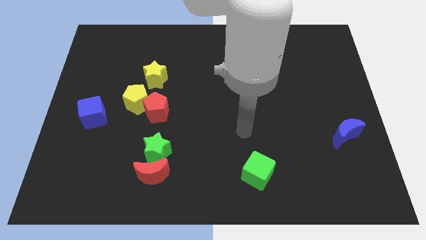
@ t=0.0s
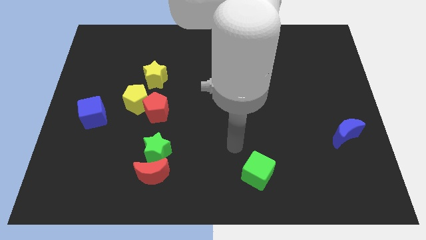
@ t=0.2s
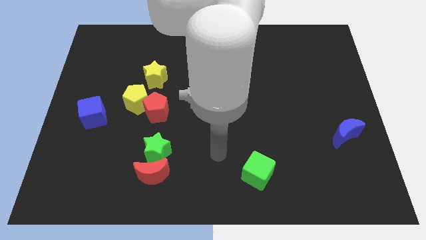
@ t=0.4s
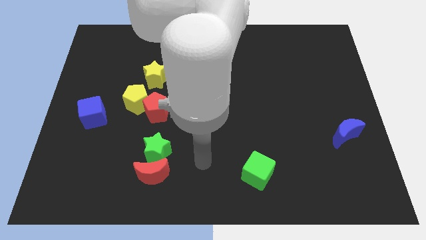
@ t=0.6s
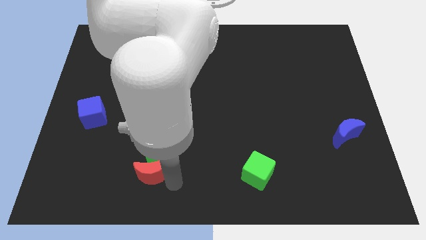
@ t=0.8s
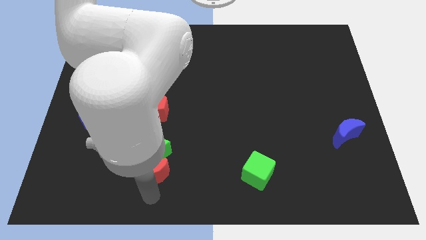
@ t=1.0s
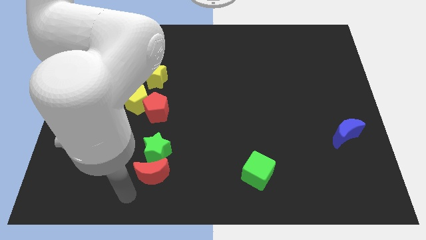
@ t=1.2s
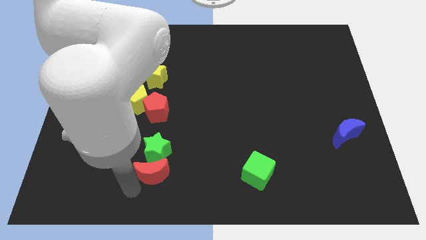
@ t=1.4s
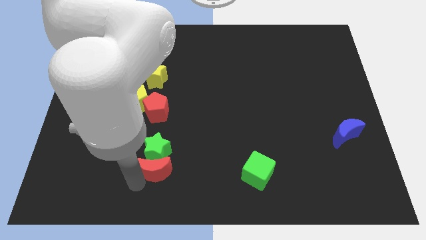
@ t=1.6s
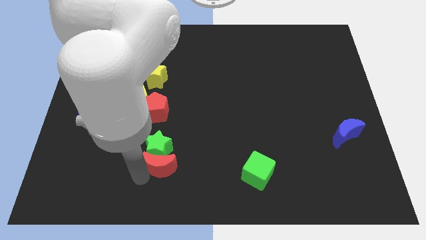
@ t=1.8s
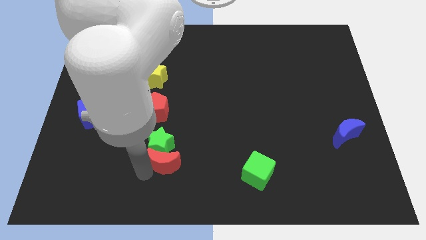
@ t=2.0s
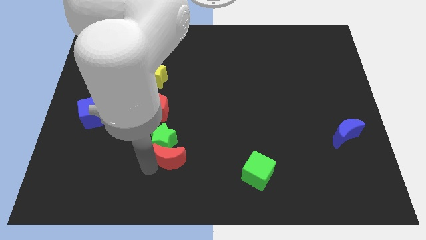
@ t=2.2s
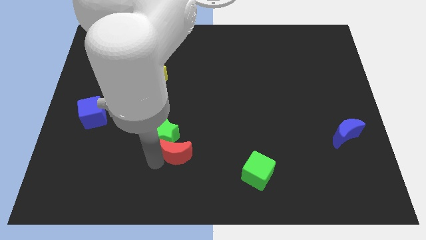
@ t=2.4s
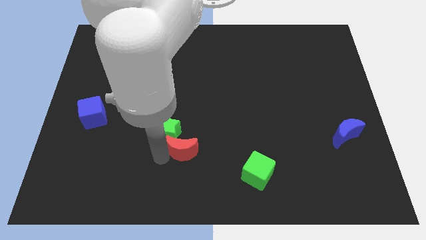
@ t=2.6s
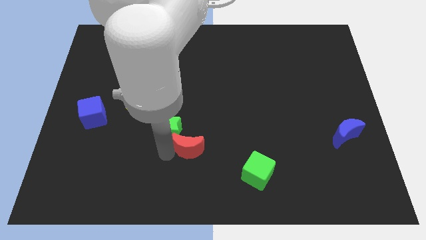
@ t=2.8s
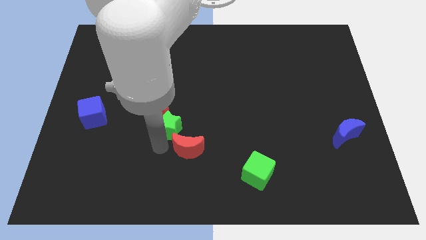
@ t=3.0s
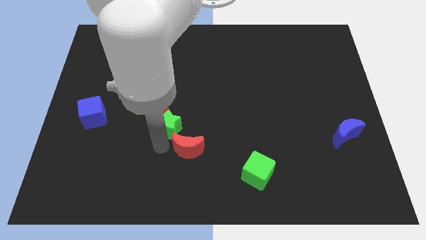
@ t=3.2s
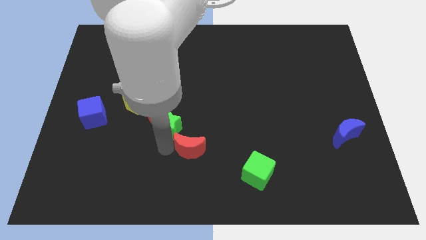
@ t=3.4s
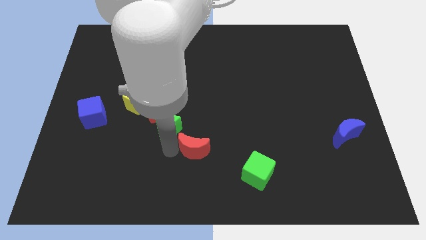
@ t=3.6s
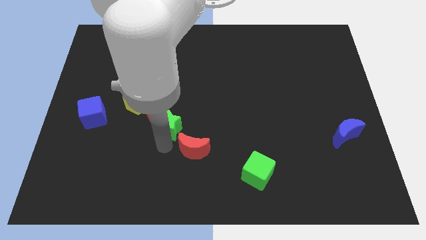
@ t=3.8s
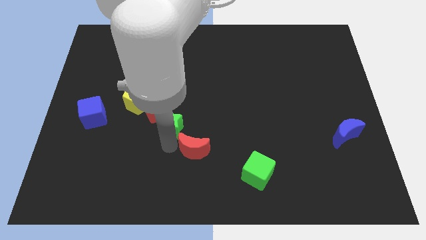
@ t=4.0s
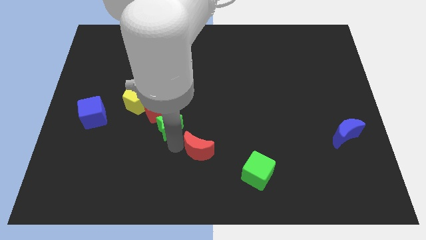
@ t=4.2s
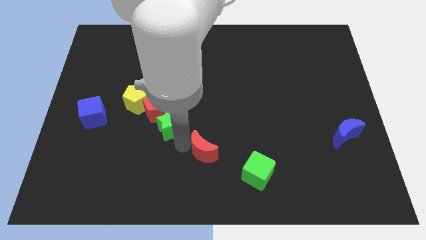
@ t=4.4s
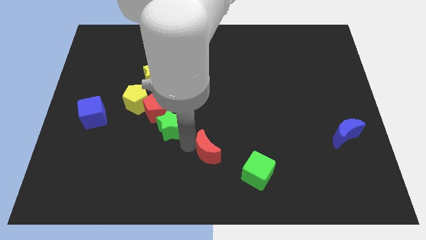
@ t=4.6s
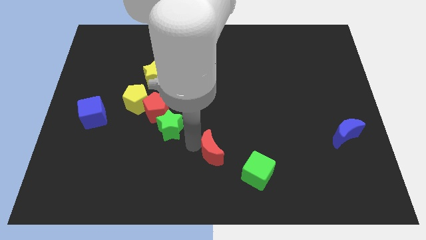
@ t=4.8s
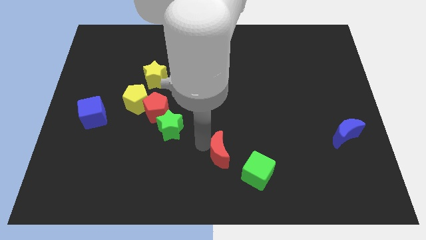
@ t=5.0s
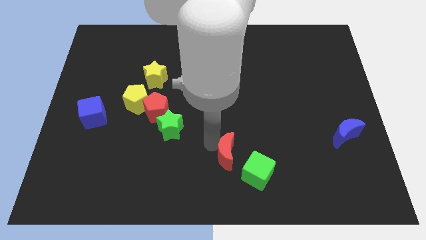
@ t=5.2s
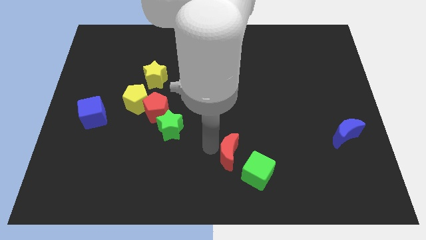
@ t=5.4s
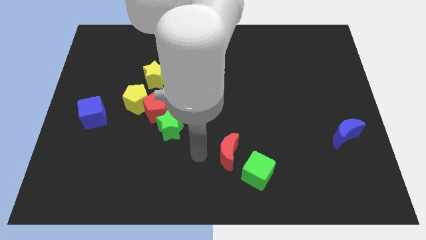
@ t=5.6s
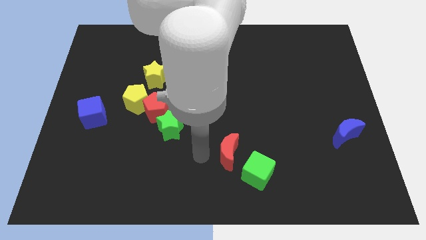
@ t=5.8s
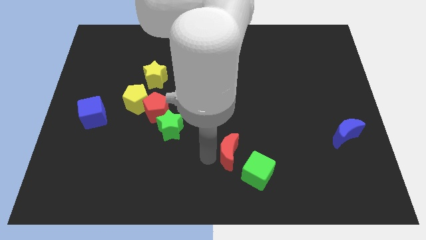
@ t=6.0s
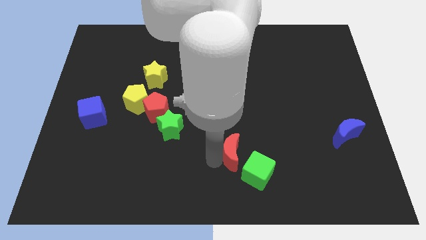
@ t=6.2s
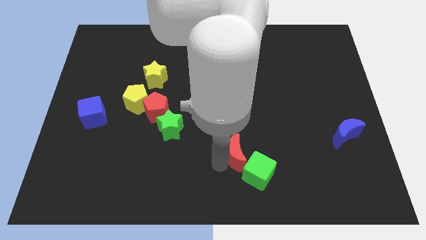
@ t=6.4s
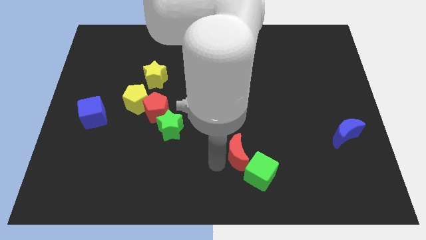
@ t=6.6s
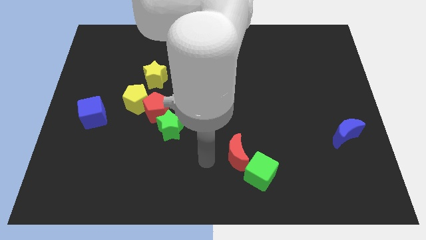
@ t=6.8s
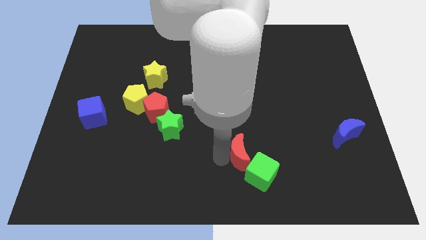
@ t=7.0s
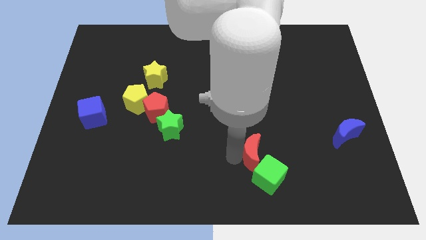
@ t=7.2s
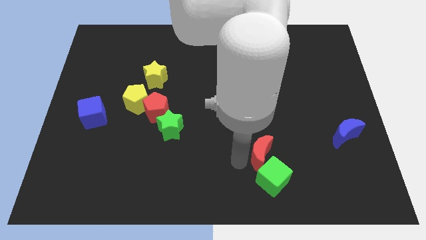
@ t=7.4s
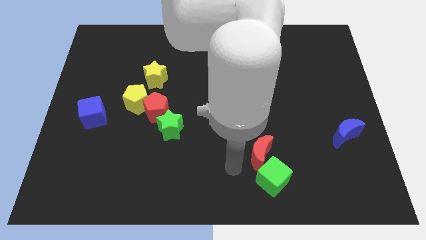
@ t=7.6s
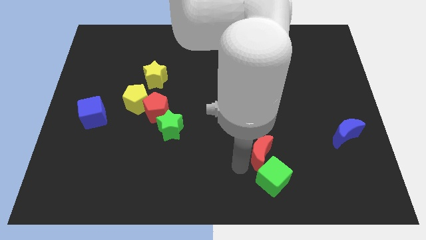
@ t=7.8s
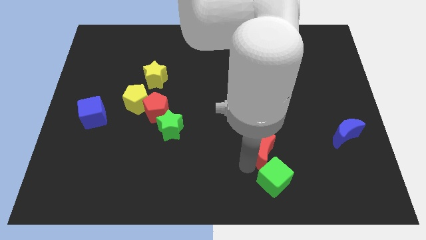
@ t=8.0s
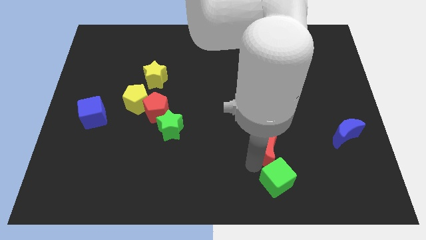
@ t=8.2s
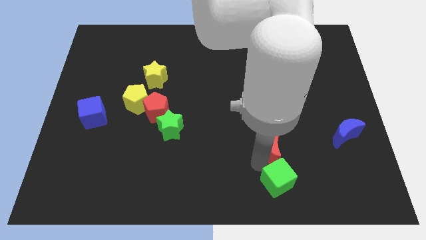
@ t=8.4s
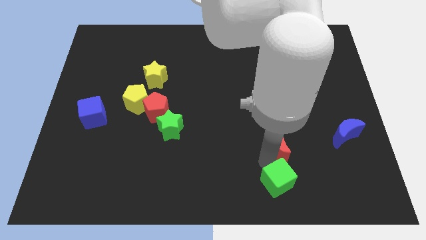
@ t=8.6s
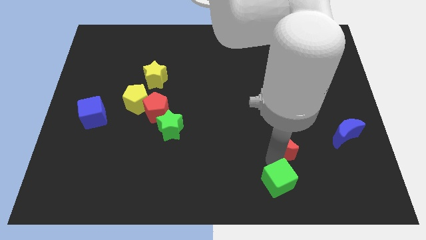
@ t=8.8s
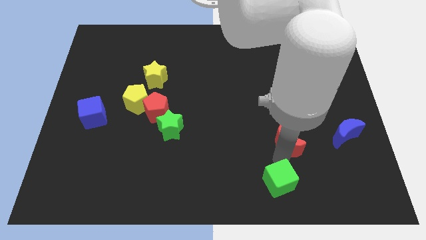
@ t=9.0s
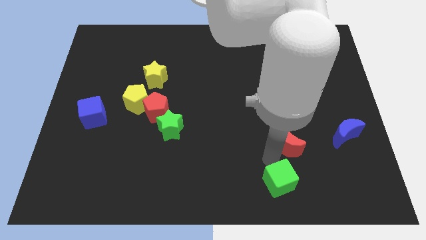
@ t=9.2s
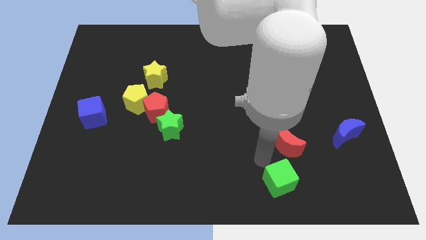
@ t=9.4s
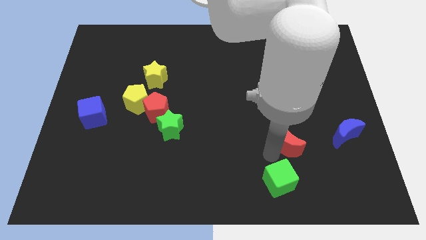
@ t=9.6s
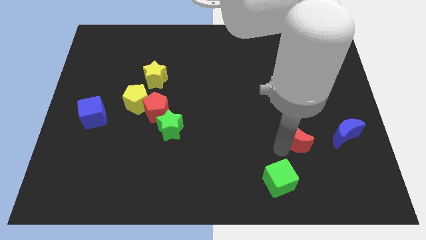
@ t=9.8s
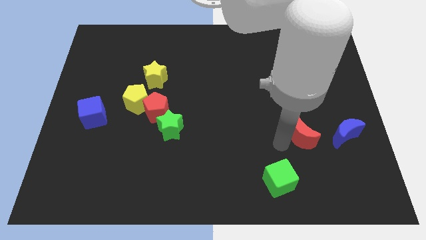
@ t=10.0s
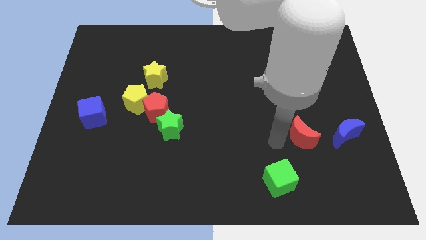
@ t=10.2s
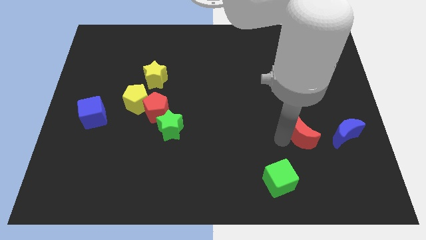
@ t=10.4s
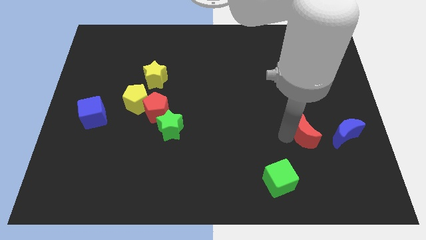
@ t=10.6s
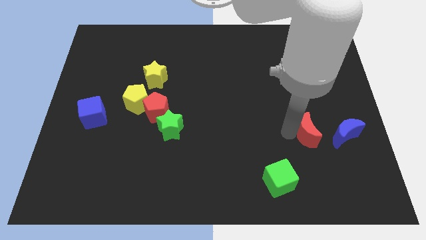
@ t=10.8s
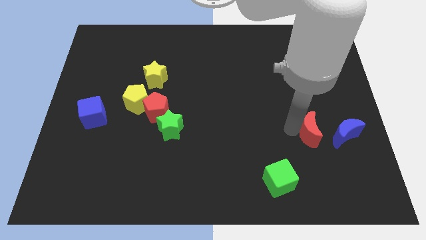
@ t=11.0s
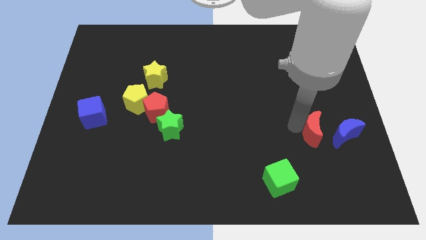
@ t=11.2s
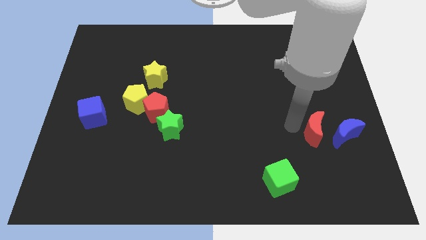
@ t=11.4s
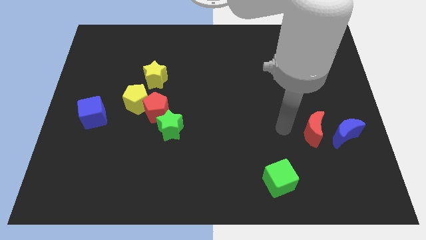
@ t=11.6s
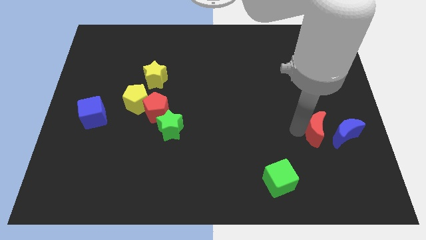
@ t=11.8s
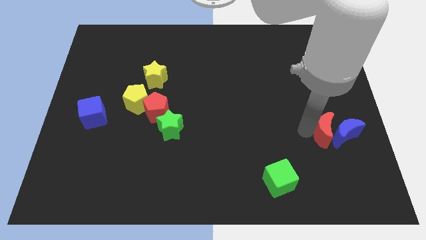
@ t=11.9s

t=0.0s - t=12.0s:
put the red moon towards the blue moon

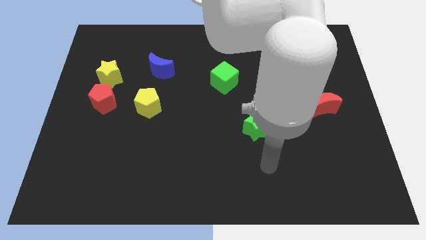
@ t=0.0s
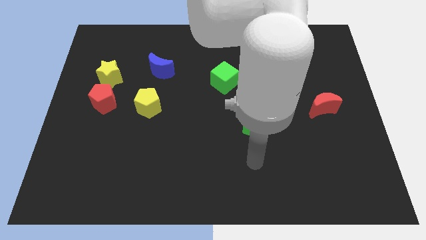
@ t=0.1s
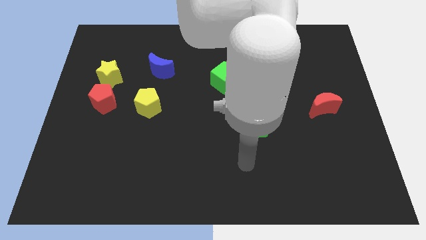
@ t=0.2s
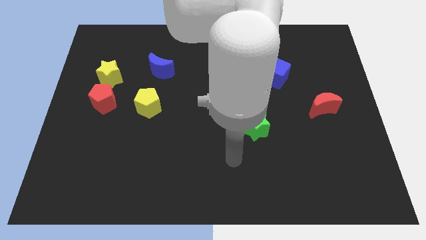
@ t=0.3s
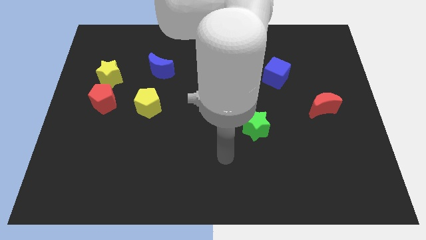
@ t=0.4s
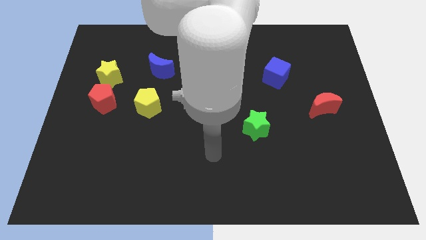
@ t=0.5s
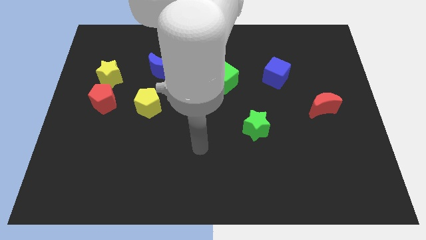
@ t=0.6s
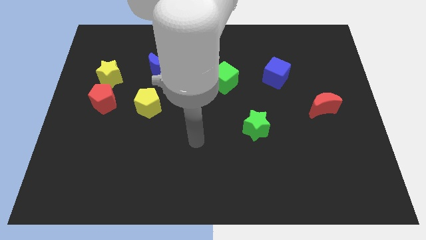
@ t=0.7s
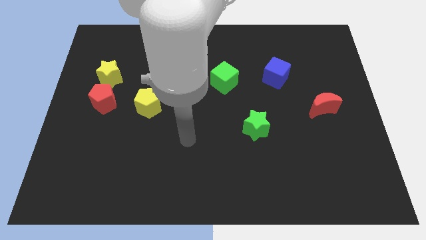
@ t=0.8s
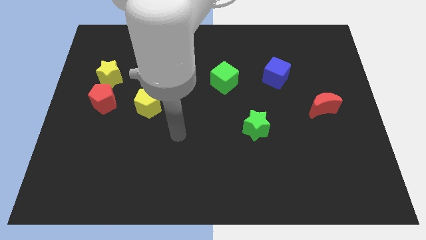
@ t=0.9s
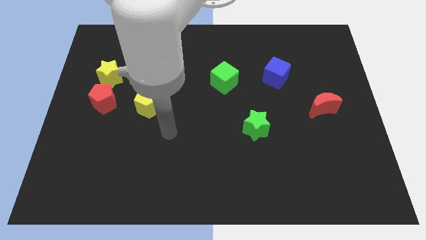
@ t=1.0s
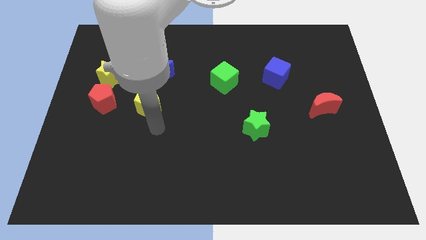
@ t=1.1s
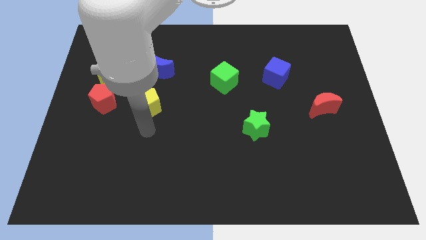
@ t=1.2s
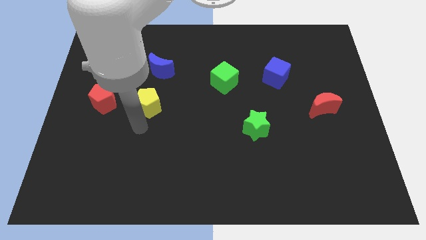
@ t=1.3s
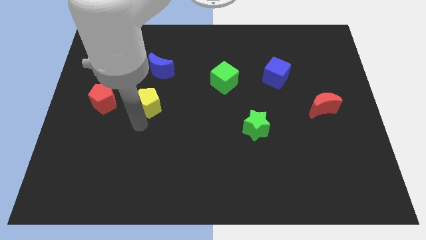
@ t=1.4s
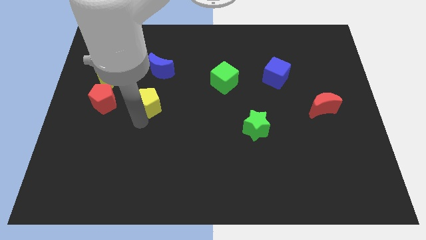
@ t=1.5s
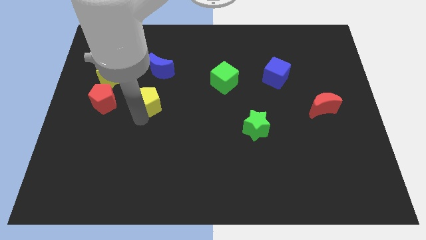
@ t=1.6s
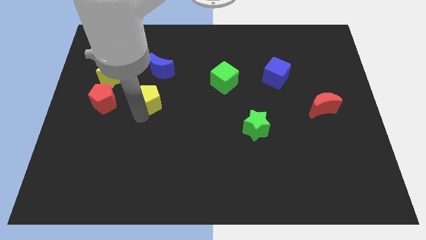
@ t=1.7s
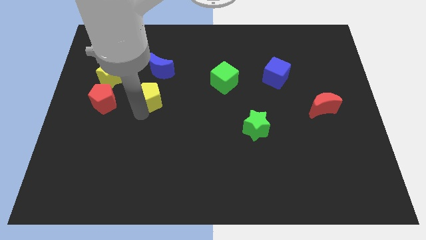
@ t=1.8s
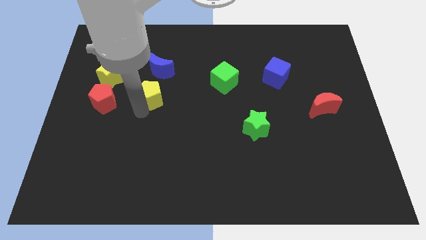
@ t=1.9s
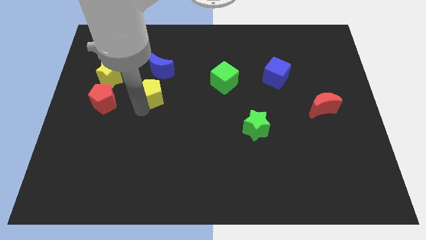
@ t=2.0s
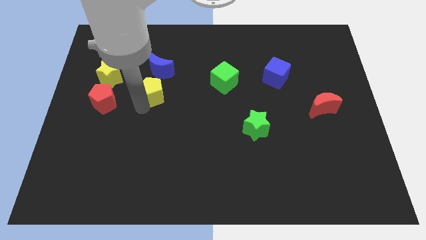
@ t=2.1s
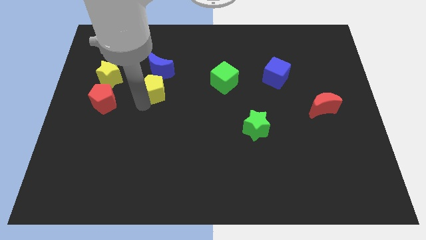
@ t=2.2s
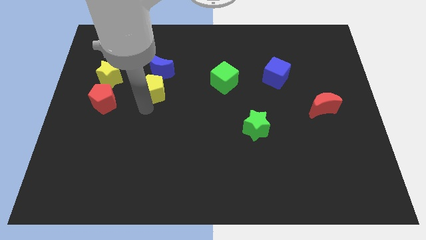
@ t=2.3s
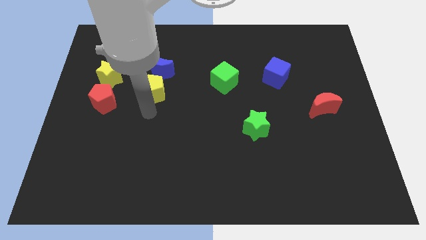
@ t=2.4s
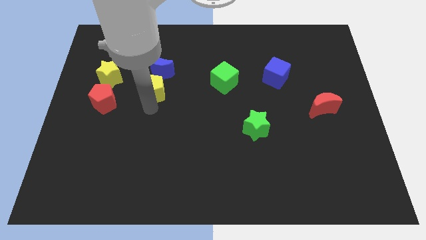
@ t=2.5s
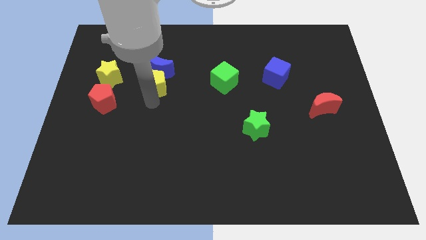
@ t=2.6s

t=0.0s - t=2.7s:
push the yellow pentagon towards the blue moon
